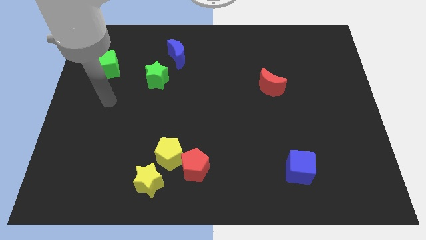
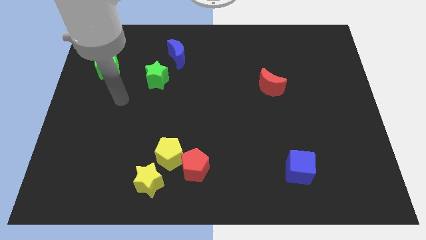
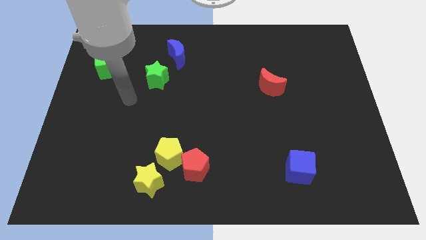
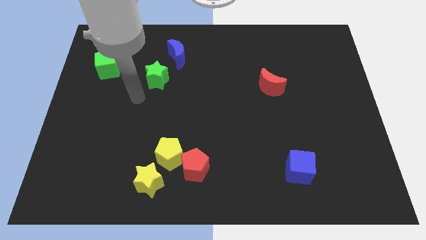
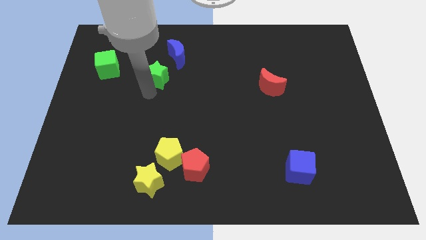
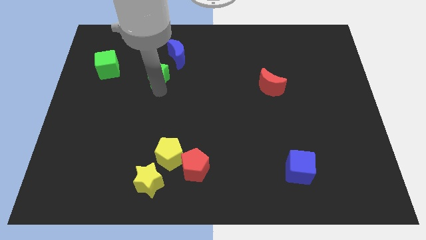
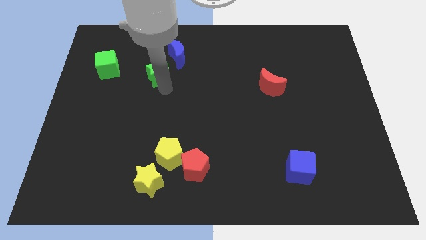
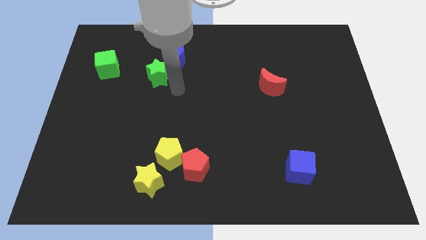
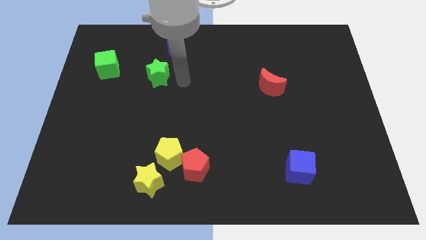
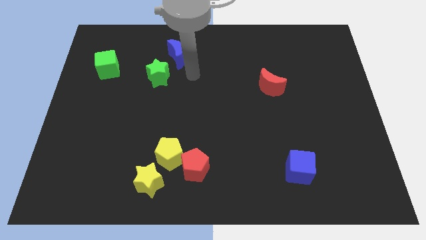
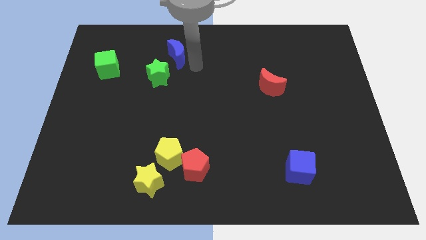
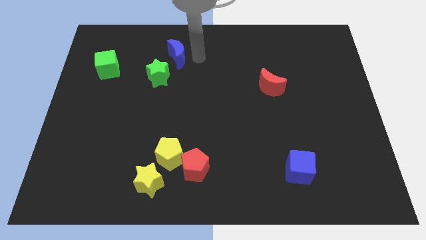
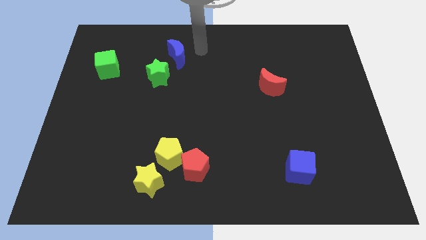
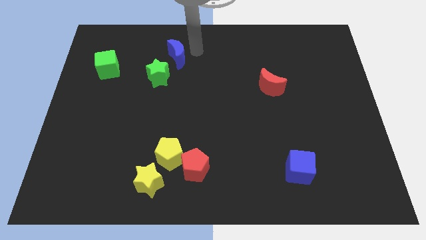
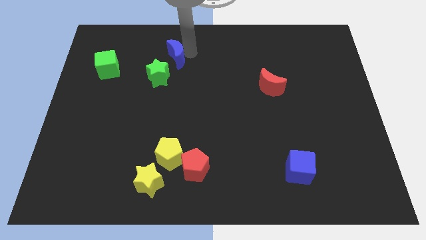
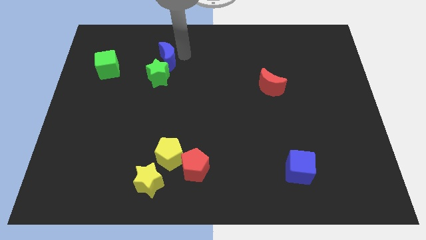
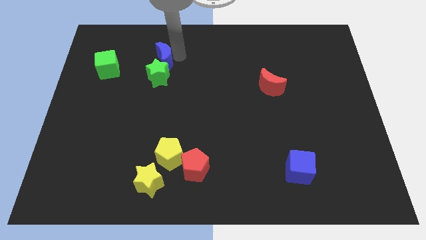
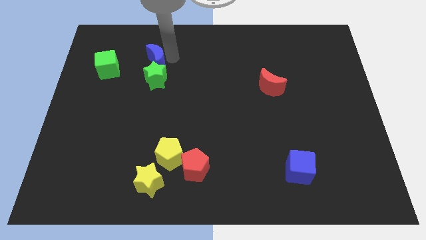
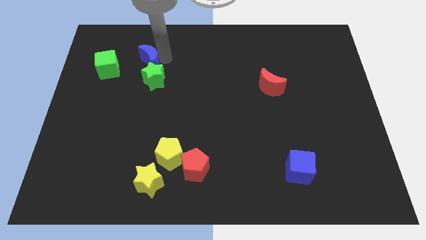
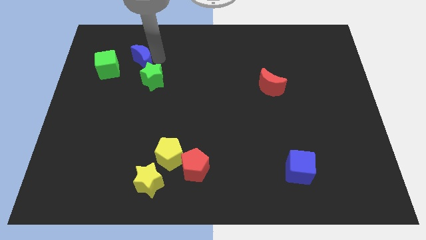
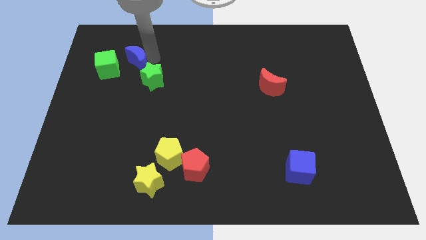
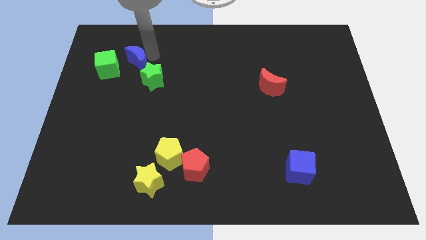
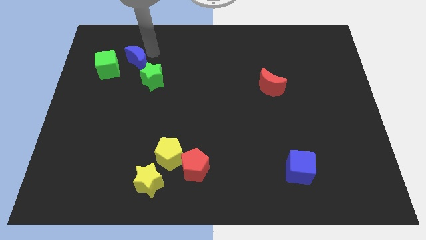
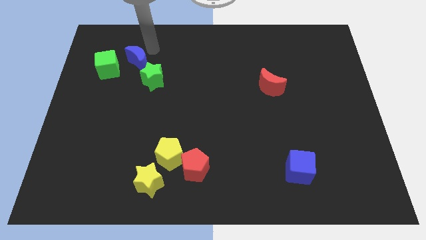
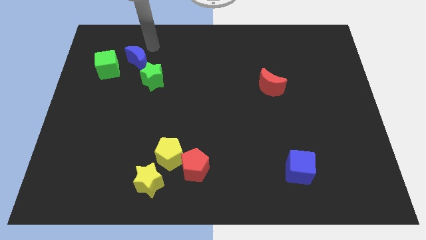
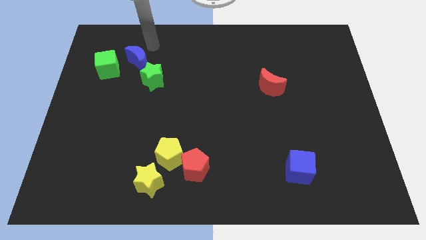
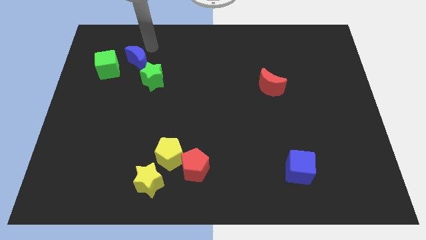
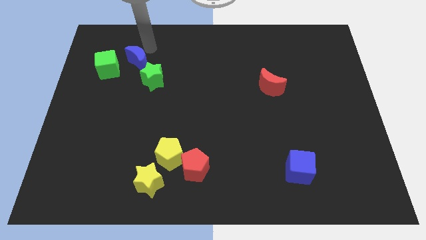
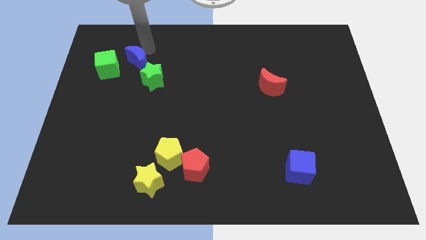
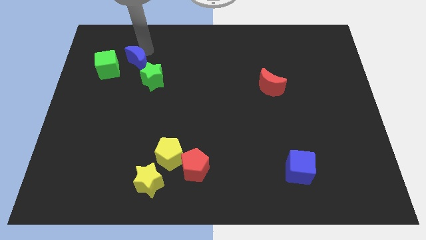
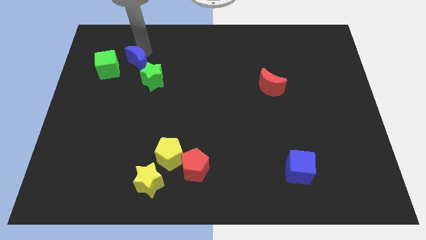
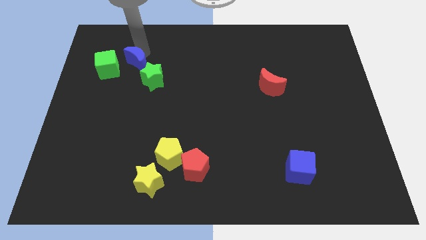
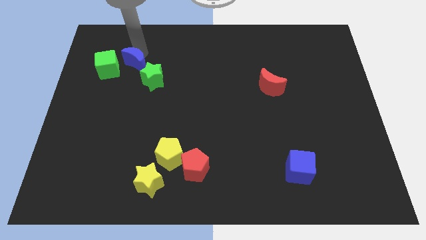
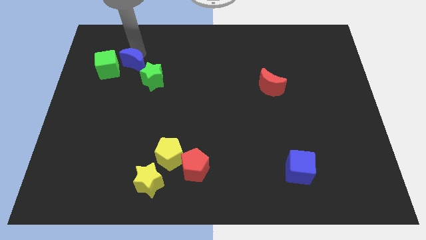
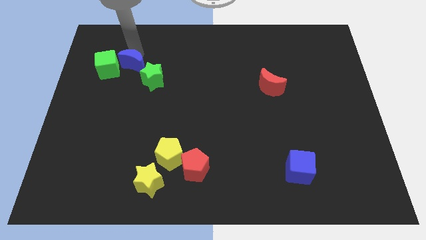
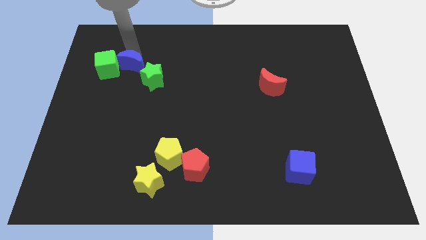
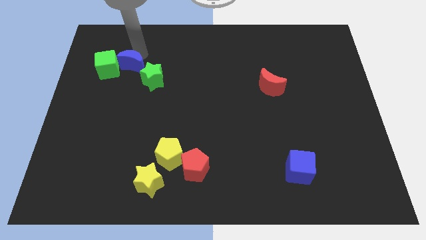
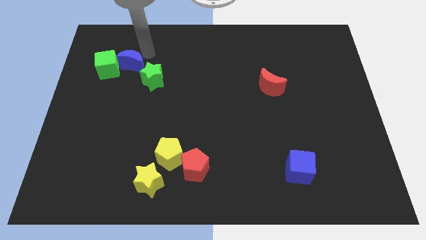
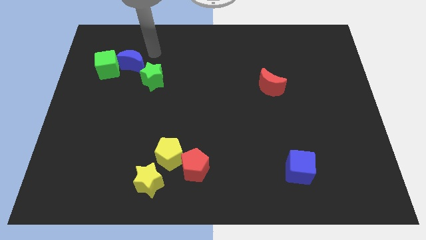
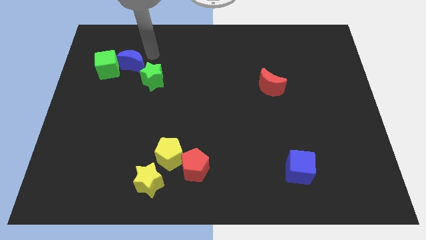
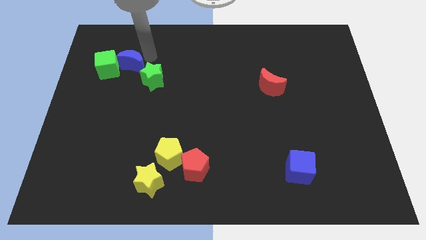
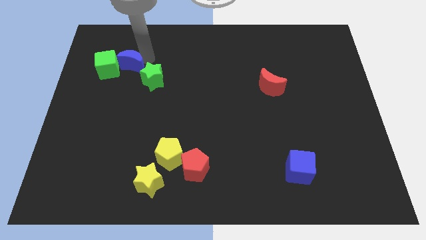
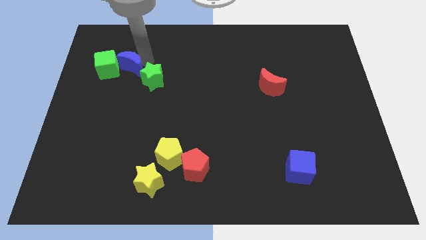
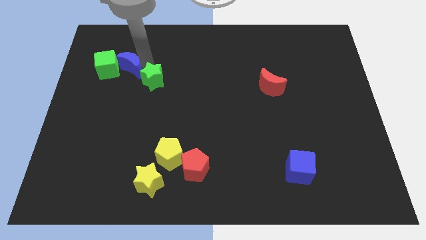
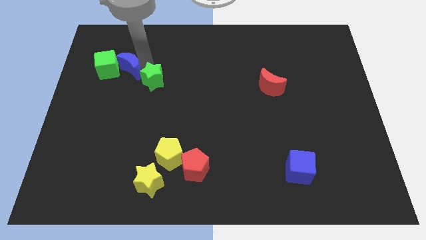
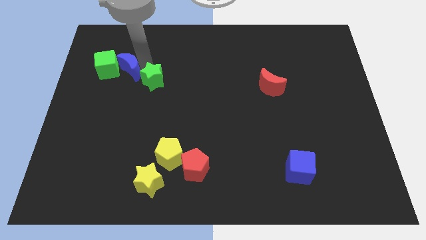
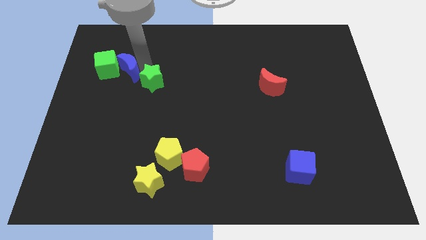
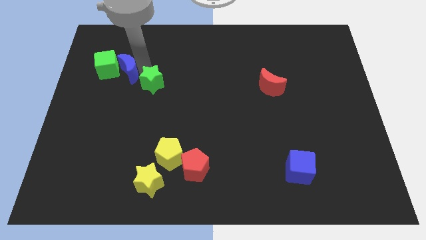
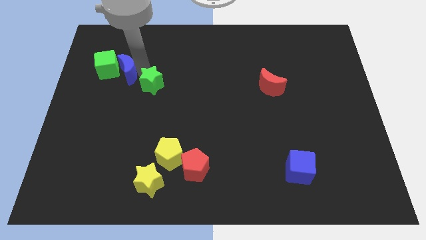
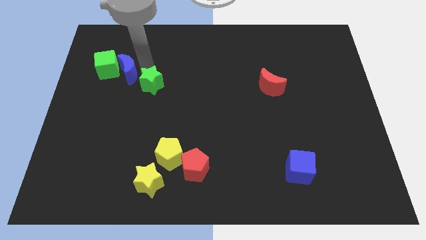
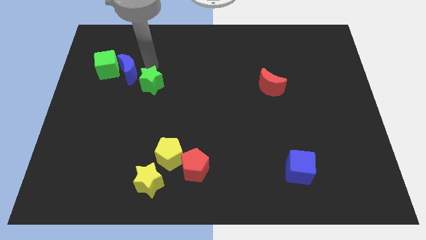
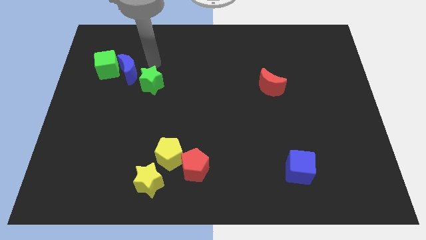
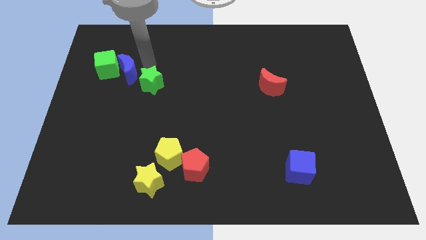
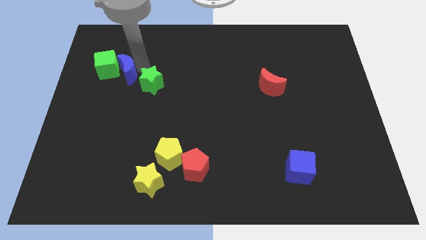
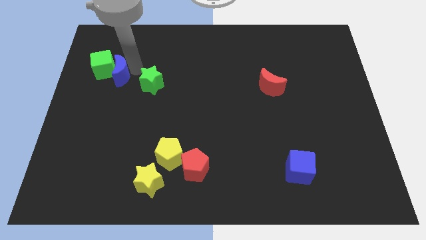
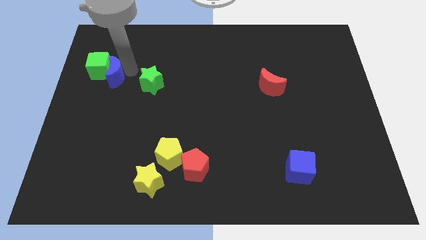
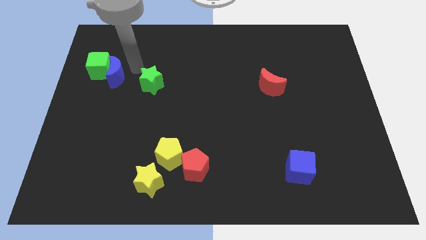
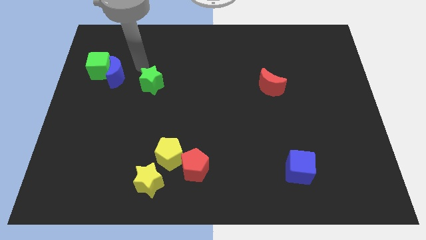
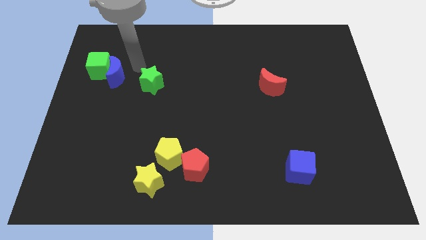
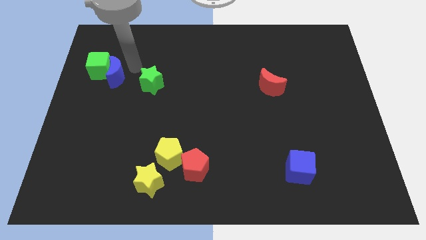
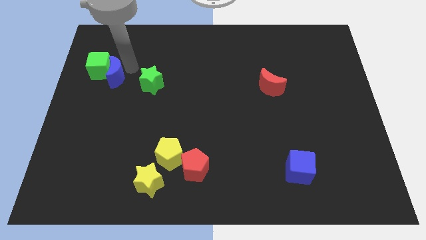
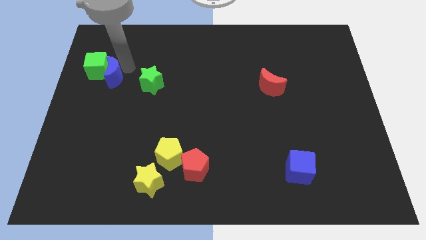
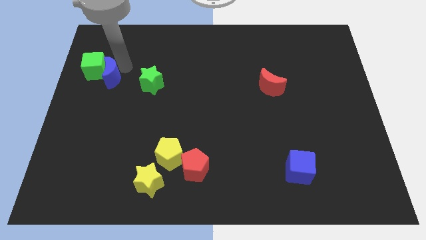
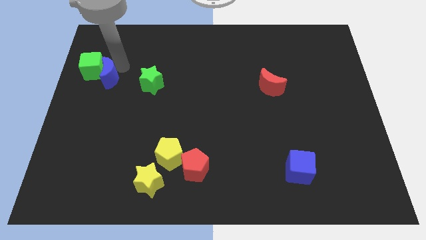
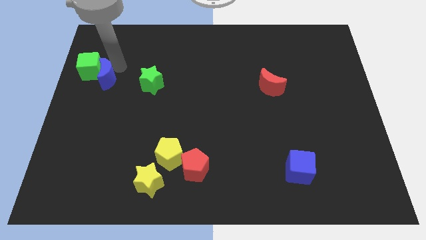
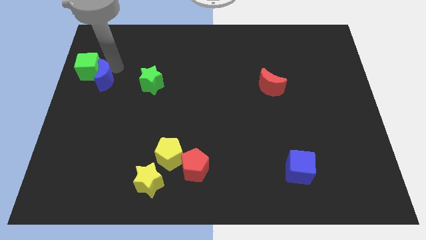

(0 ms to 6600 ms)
move the blue moon to the left side
